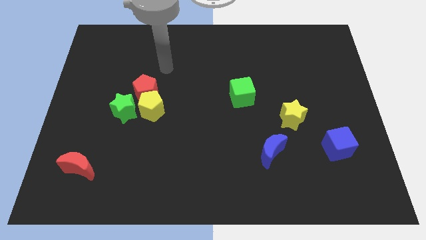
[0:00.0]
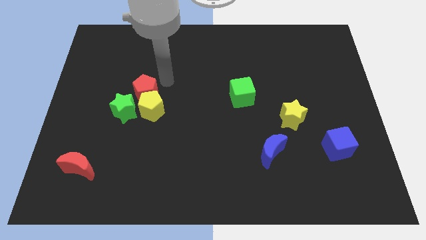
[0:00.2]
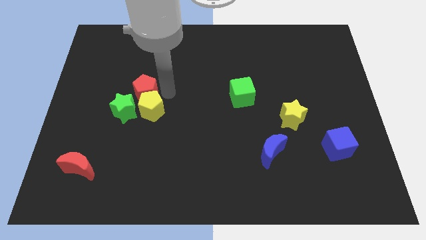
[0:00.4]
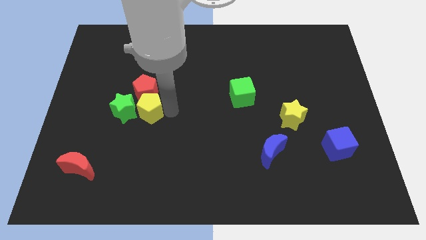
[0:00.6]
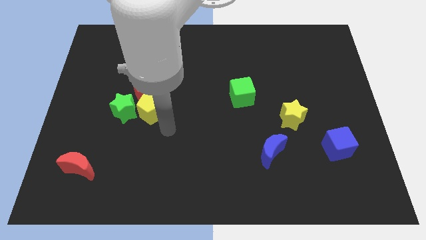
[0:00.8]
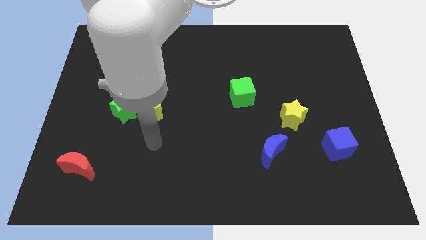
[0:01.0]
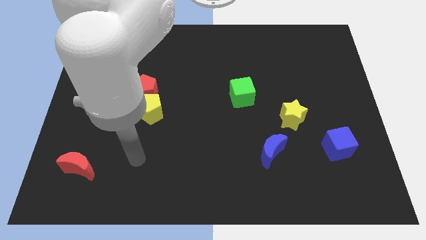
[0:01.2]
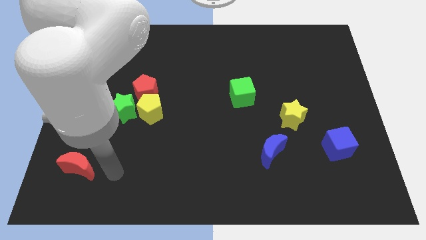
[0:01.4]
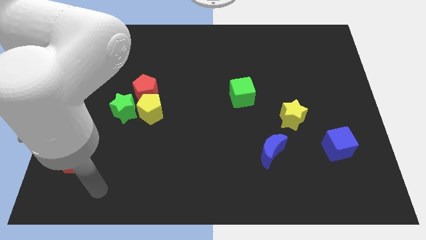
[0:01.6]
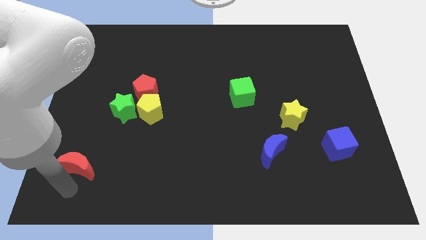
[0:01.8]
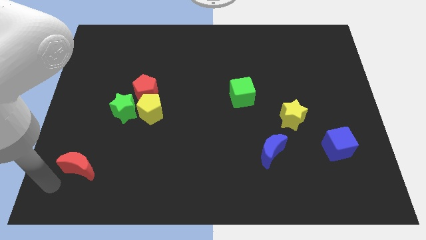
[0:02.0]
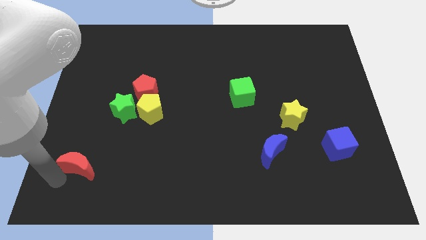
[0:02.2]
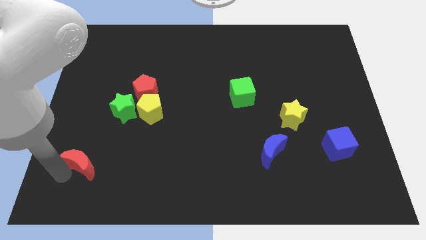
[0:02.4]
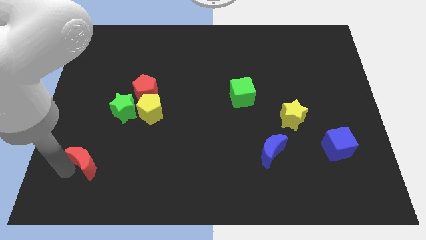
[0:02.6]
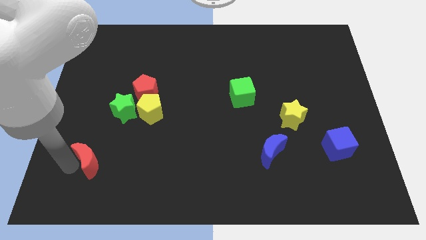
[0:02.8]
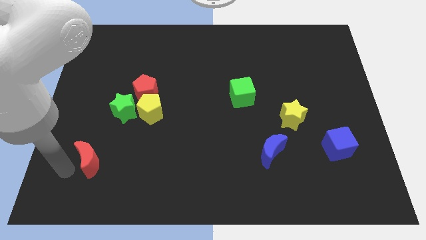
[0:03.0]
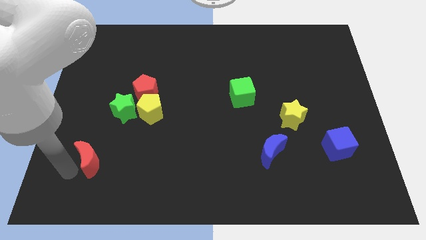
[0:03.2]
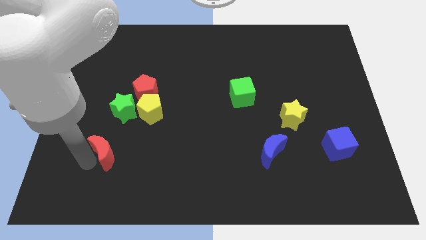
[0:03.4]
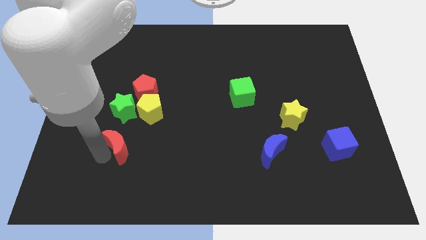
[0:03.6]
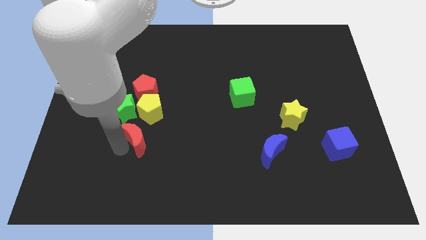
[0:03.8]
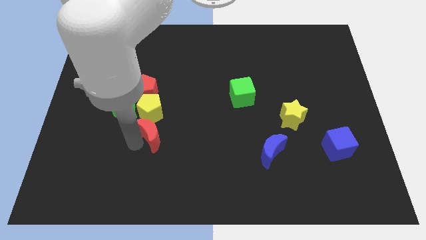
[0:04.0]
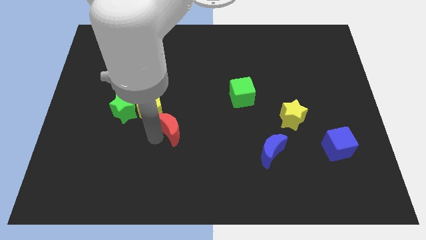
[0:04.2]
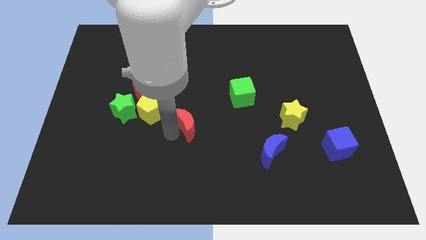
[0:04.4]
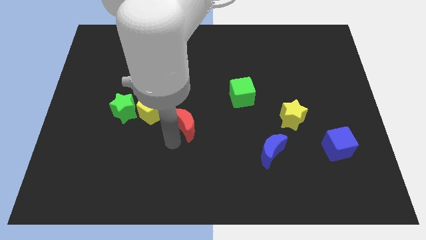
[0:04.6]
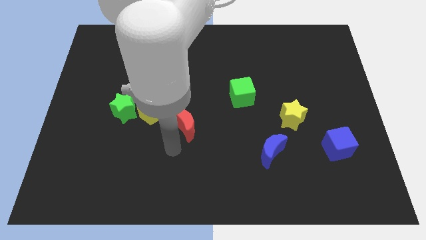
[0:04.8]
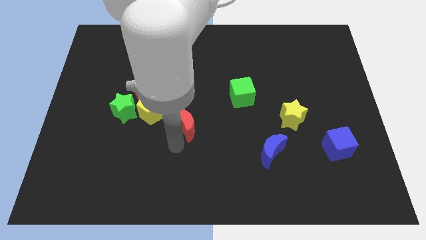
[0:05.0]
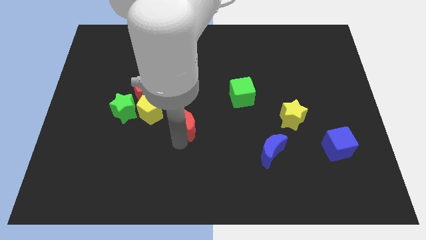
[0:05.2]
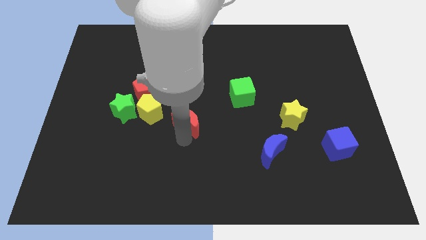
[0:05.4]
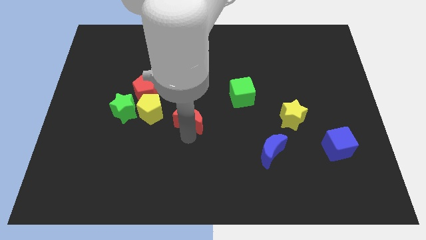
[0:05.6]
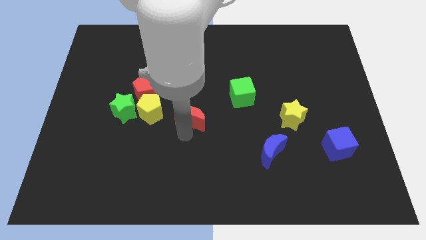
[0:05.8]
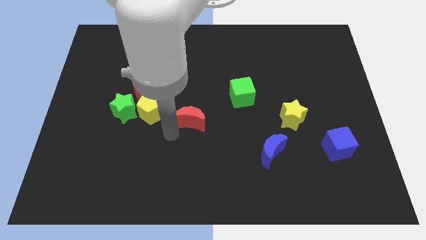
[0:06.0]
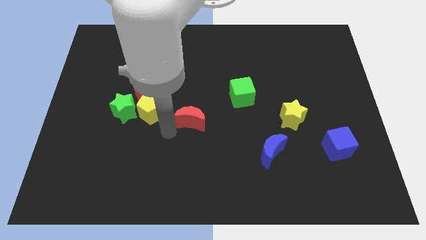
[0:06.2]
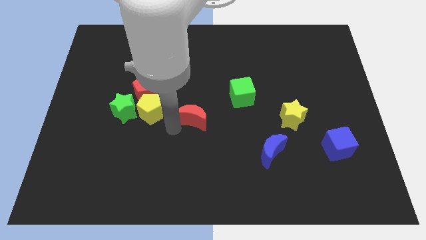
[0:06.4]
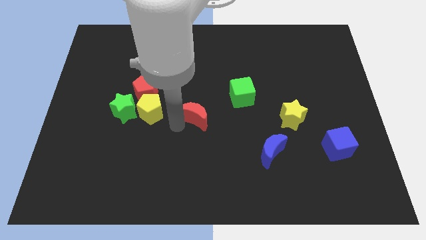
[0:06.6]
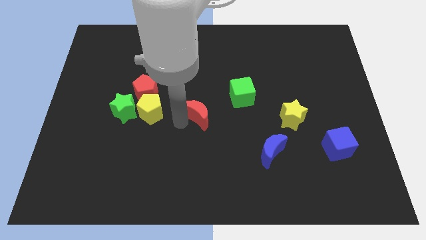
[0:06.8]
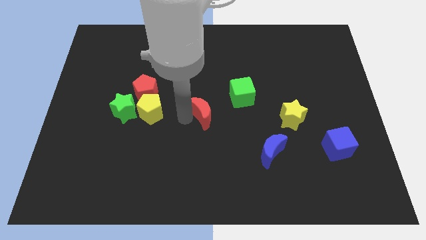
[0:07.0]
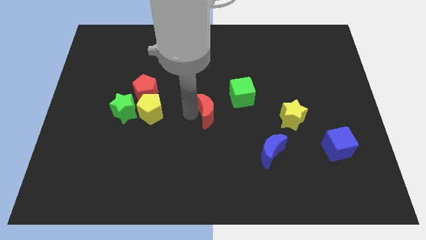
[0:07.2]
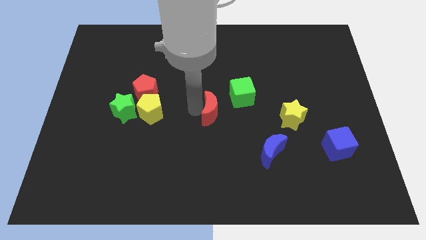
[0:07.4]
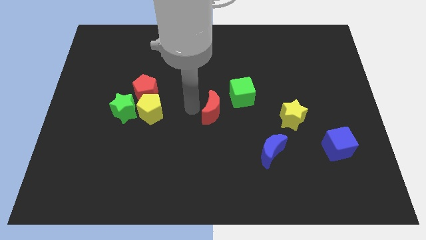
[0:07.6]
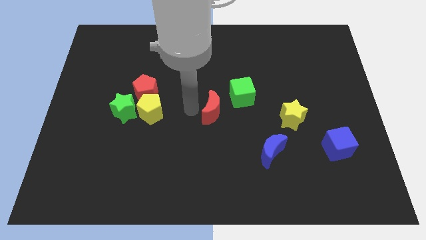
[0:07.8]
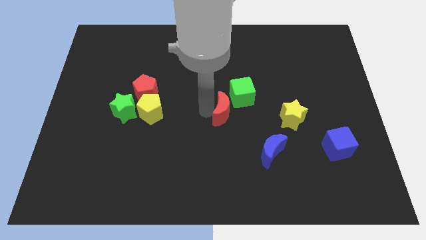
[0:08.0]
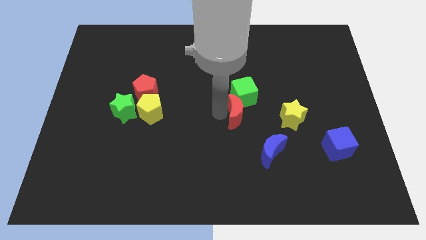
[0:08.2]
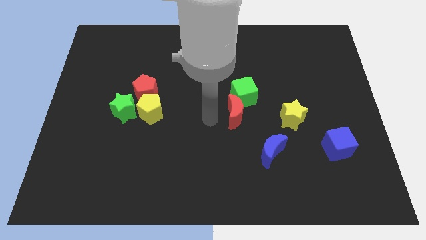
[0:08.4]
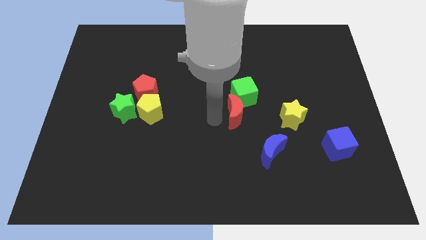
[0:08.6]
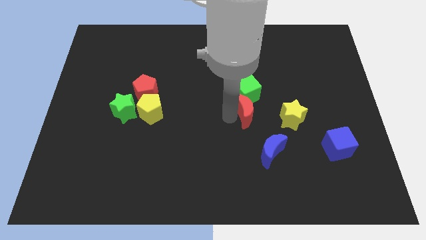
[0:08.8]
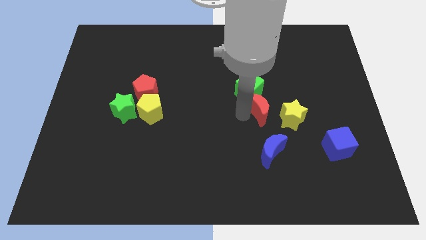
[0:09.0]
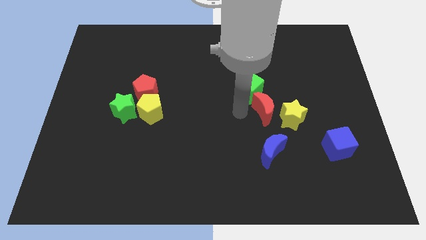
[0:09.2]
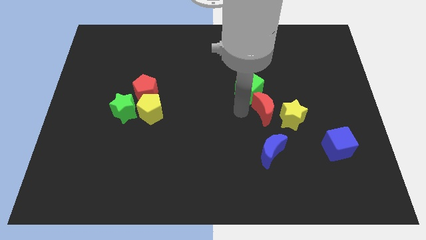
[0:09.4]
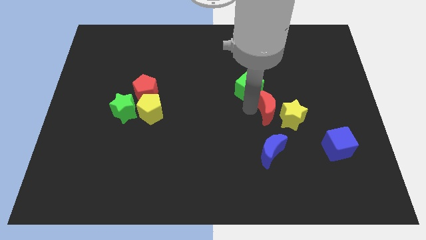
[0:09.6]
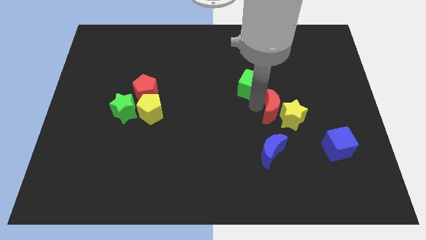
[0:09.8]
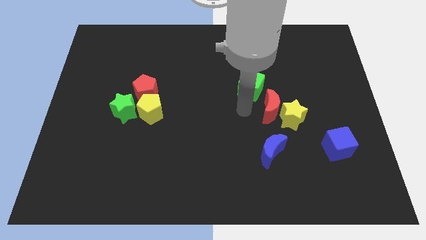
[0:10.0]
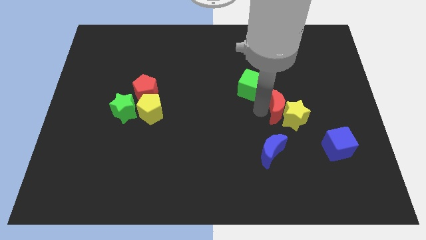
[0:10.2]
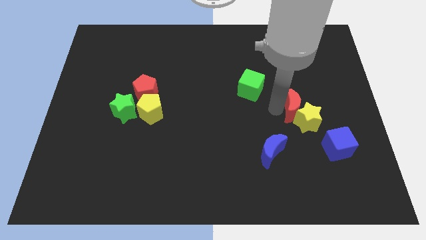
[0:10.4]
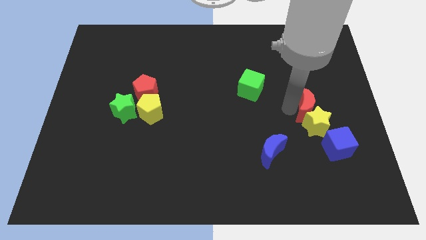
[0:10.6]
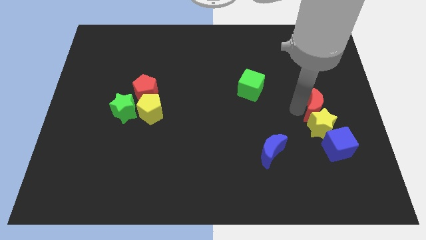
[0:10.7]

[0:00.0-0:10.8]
move the red moon above the blue cube

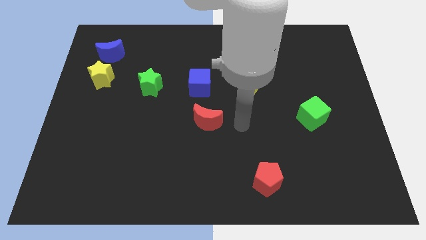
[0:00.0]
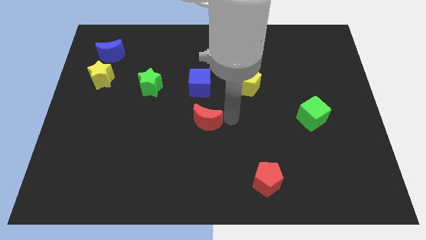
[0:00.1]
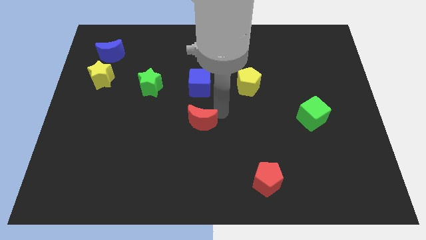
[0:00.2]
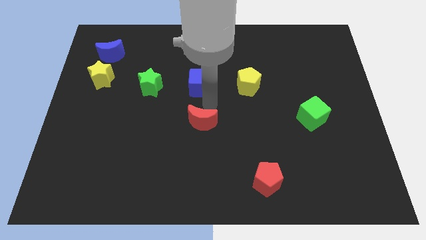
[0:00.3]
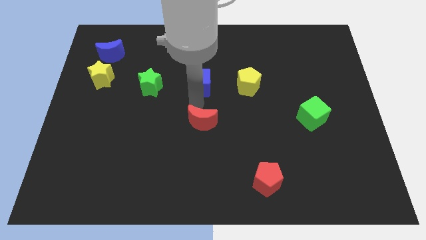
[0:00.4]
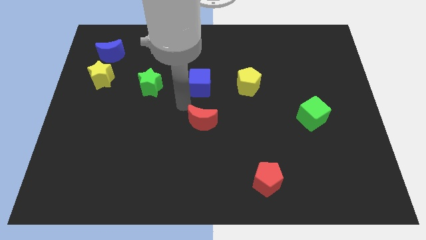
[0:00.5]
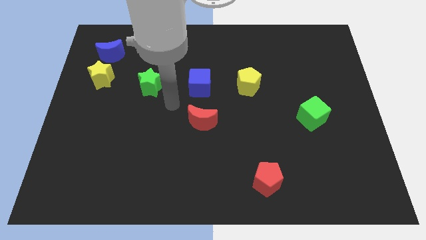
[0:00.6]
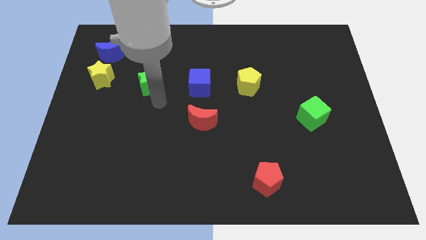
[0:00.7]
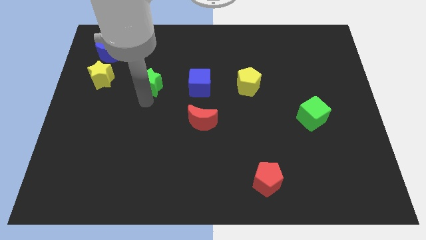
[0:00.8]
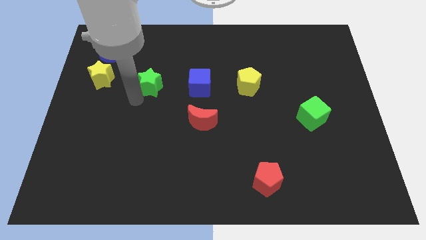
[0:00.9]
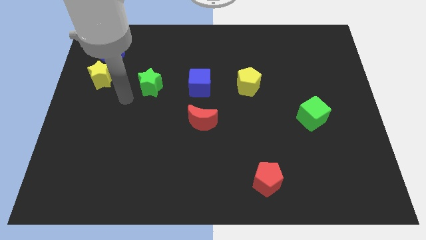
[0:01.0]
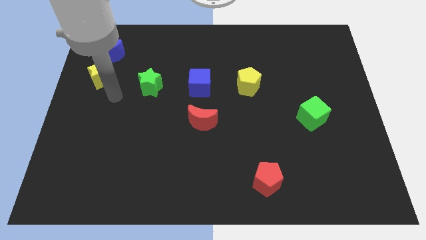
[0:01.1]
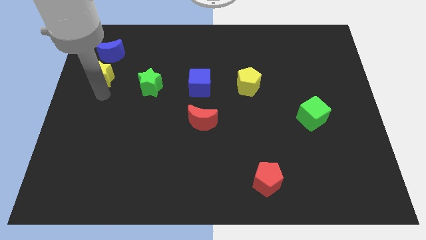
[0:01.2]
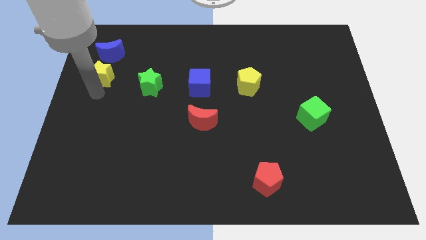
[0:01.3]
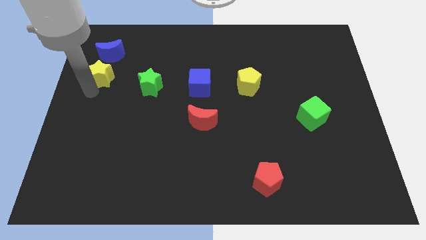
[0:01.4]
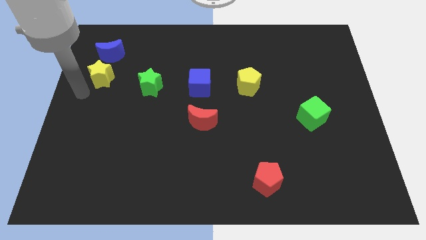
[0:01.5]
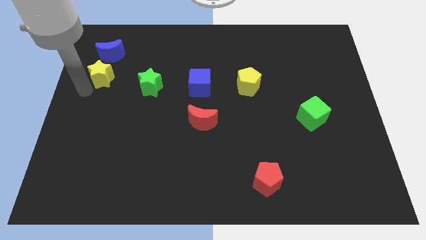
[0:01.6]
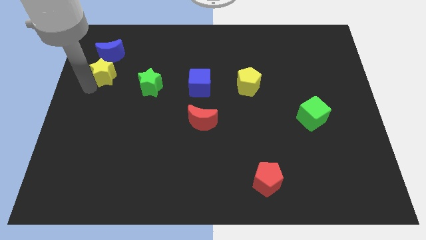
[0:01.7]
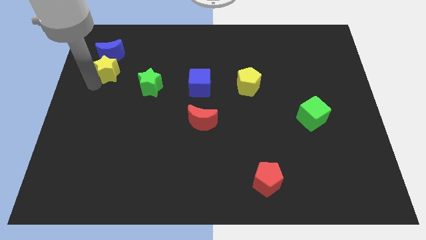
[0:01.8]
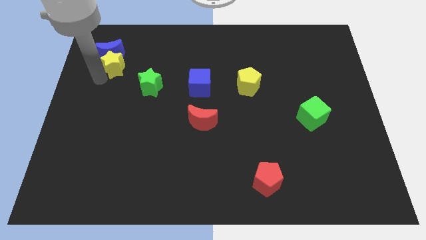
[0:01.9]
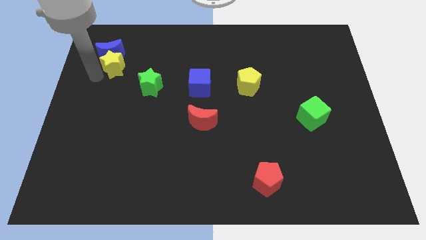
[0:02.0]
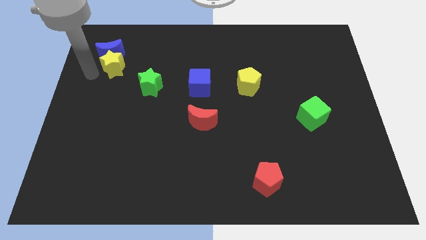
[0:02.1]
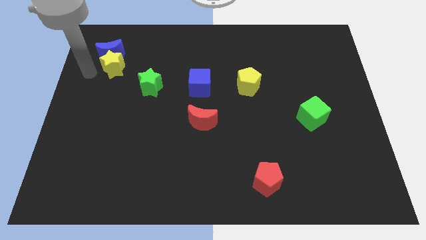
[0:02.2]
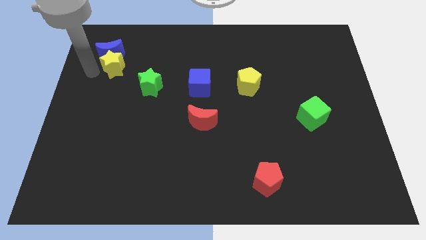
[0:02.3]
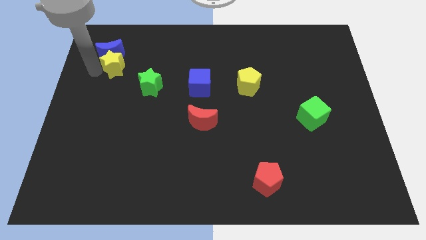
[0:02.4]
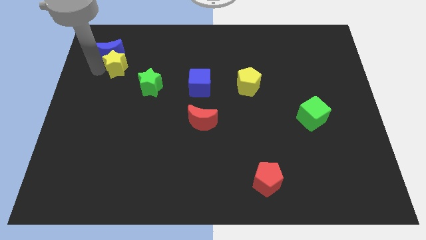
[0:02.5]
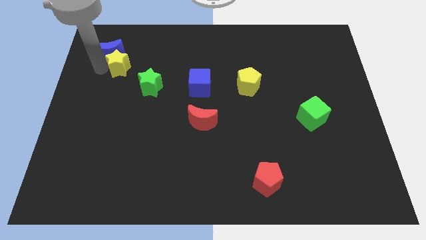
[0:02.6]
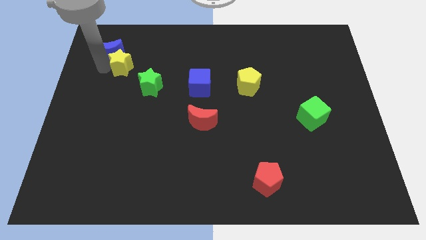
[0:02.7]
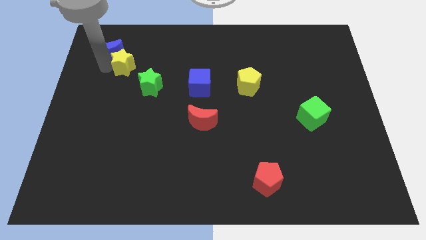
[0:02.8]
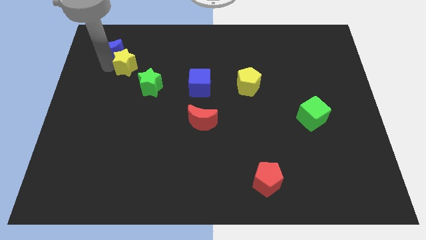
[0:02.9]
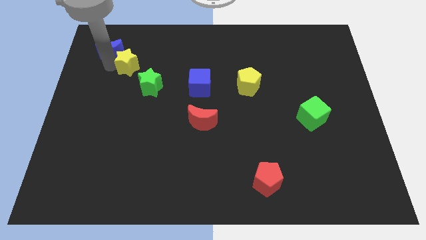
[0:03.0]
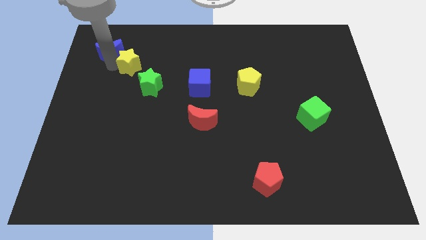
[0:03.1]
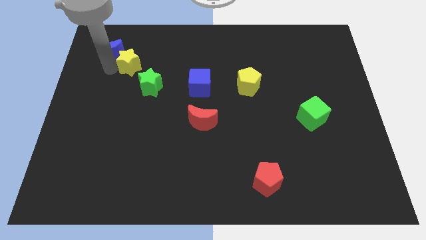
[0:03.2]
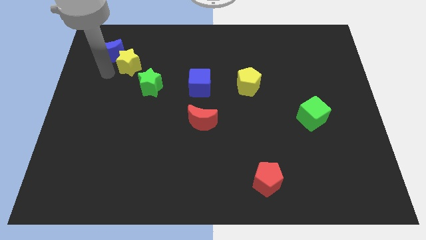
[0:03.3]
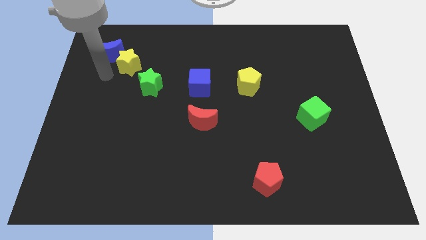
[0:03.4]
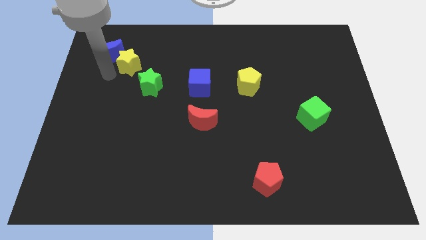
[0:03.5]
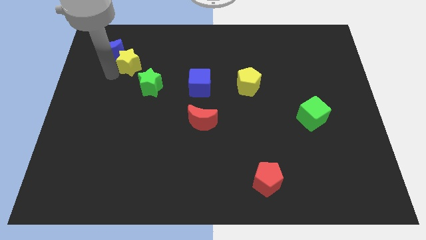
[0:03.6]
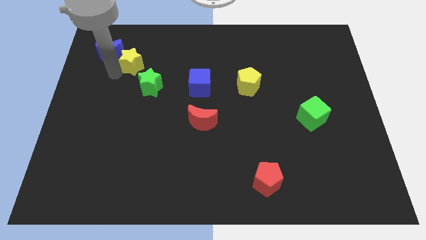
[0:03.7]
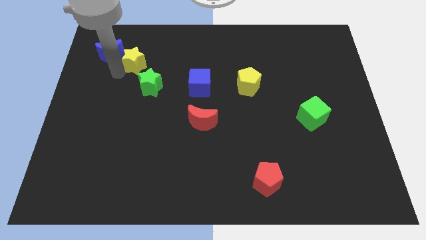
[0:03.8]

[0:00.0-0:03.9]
put the yellow star above the green star
